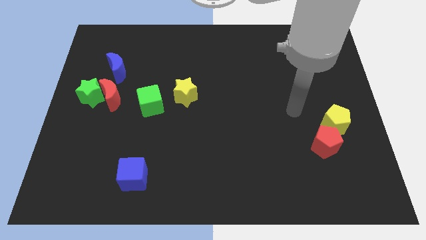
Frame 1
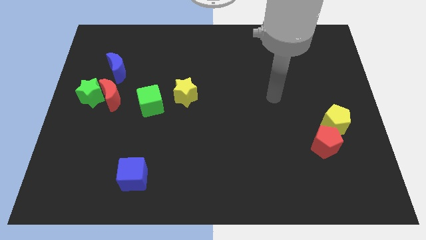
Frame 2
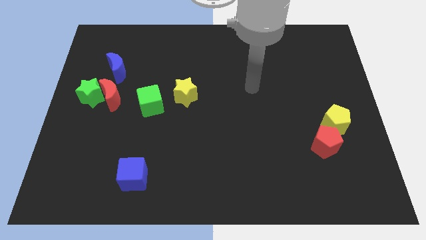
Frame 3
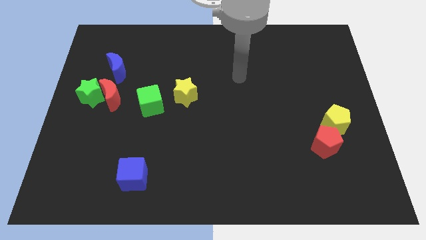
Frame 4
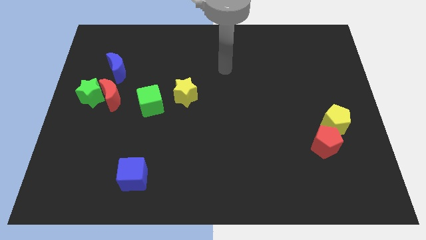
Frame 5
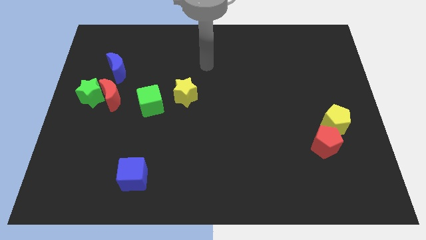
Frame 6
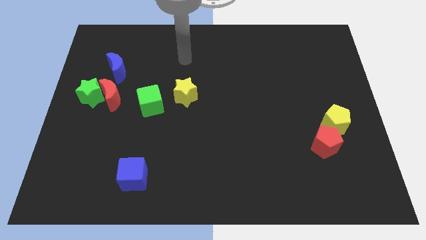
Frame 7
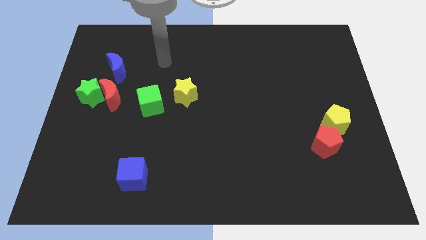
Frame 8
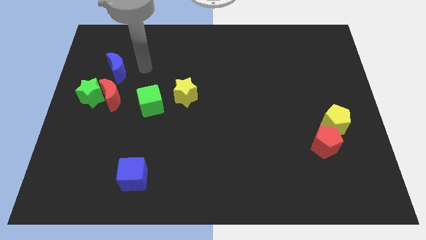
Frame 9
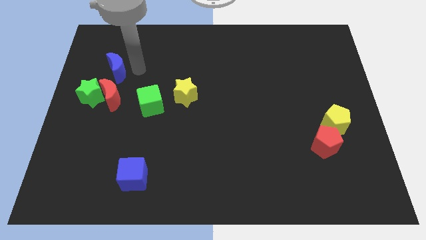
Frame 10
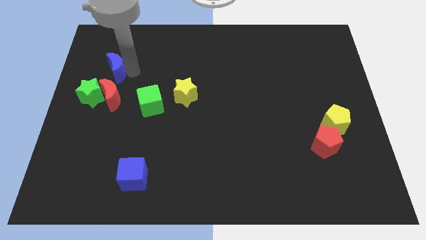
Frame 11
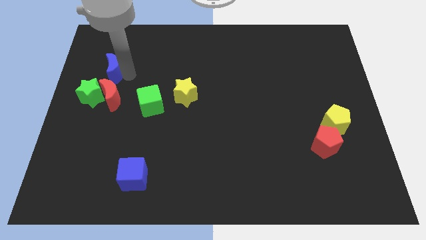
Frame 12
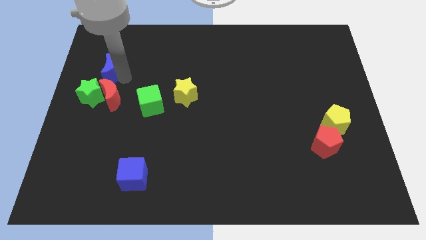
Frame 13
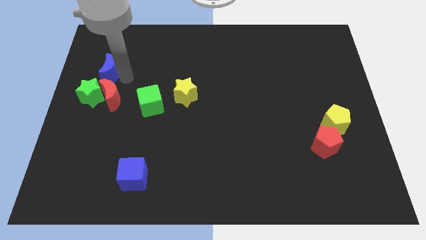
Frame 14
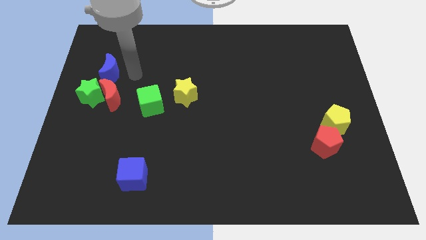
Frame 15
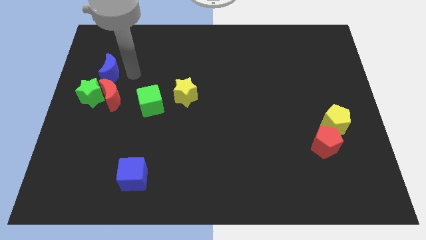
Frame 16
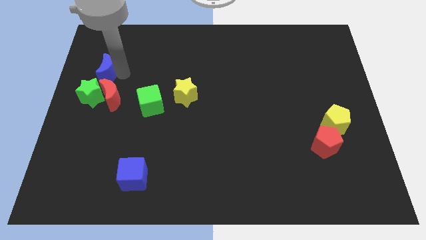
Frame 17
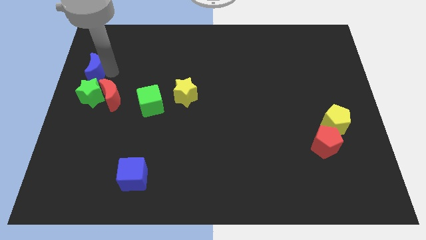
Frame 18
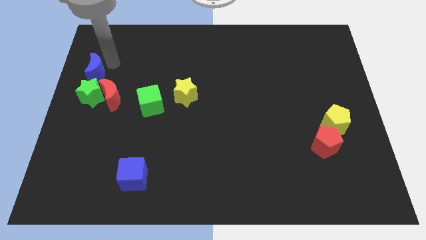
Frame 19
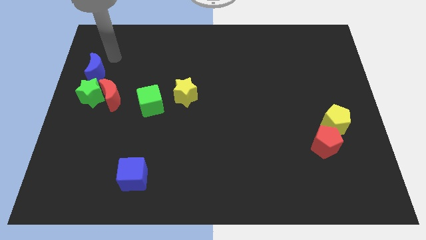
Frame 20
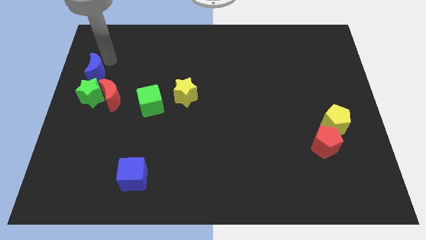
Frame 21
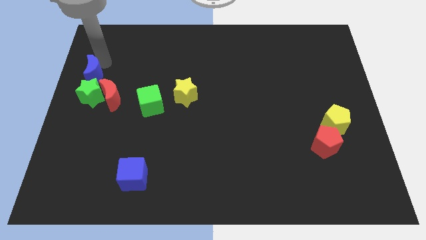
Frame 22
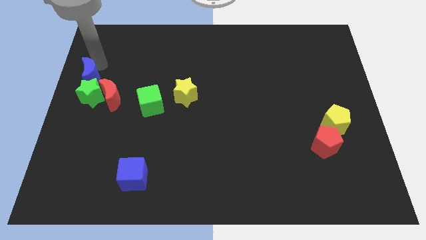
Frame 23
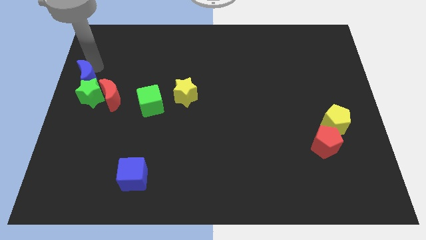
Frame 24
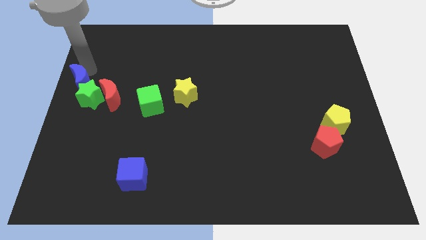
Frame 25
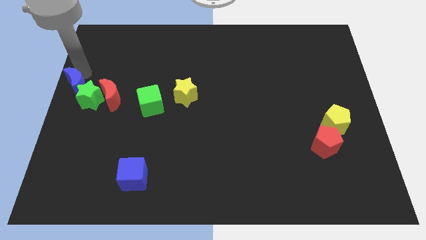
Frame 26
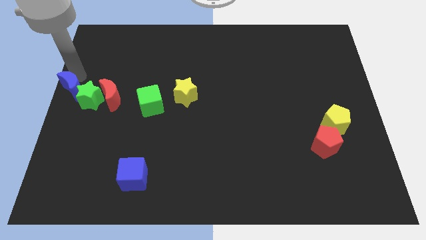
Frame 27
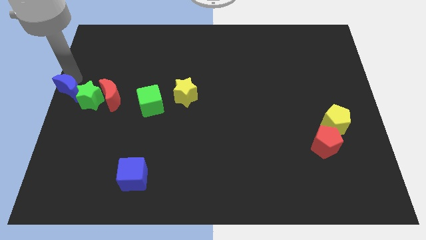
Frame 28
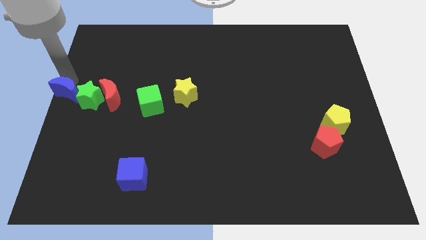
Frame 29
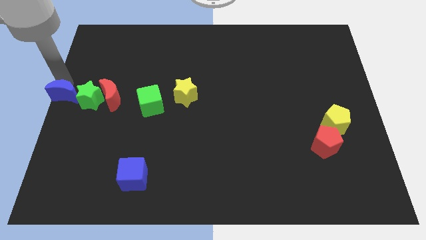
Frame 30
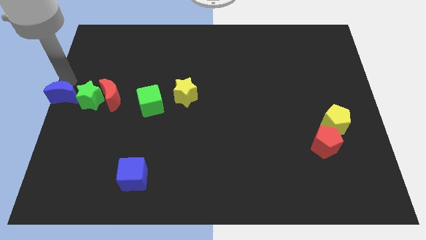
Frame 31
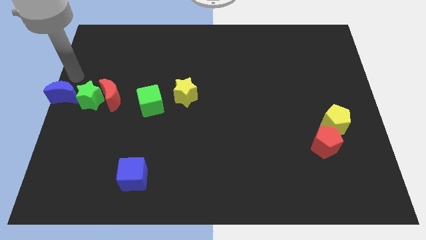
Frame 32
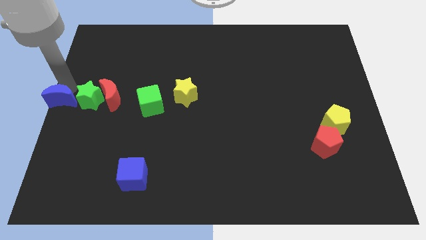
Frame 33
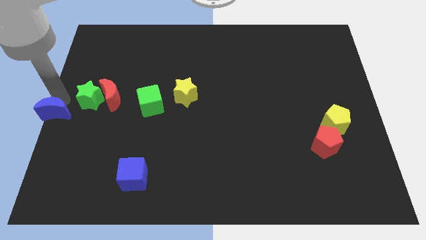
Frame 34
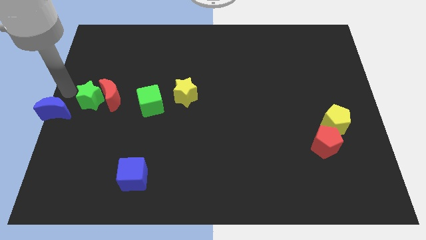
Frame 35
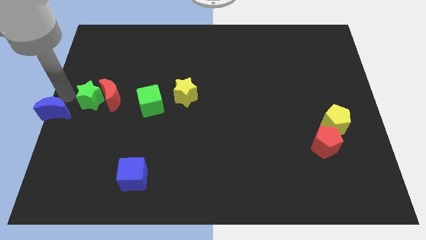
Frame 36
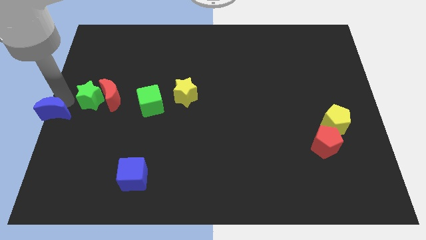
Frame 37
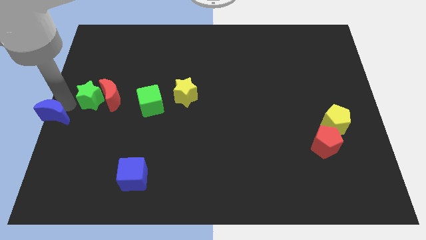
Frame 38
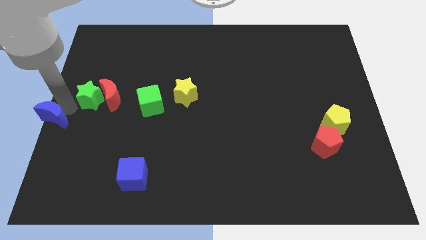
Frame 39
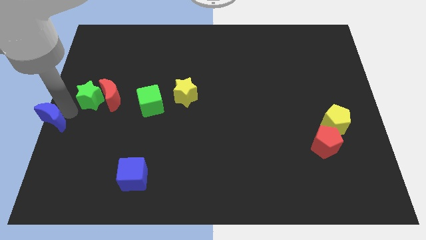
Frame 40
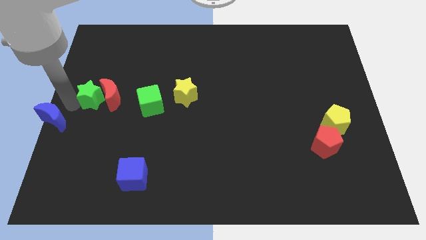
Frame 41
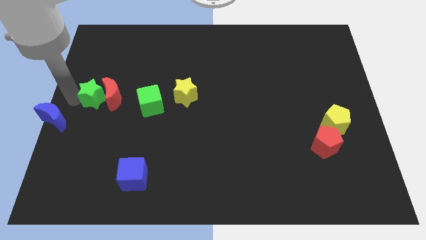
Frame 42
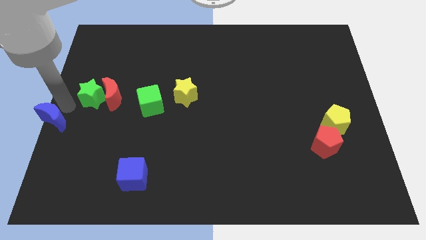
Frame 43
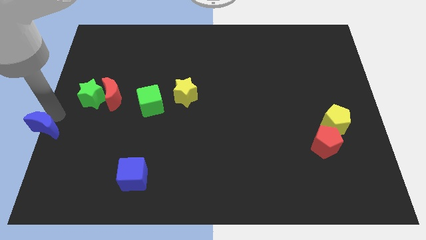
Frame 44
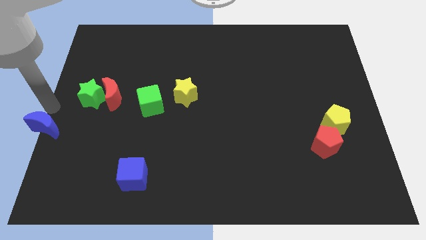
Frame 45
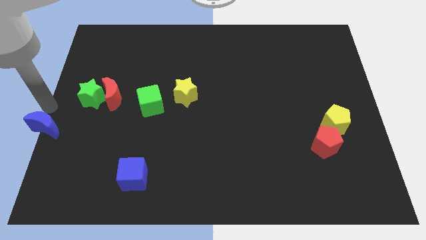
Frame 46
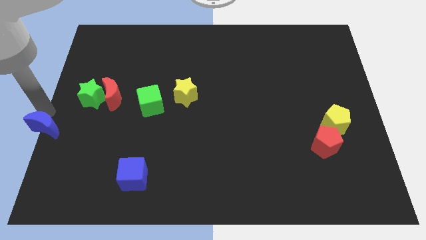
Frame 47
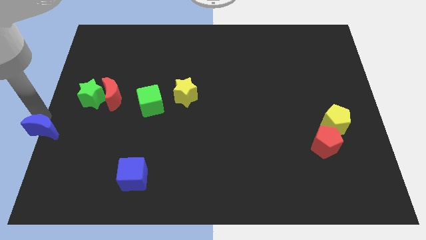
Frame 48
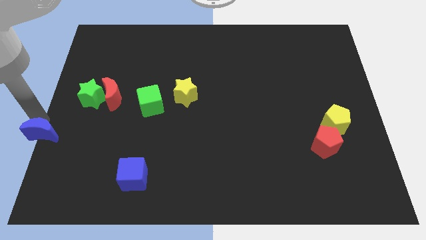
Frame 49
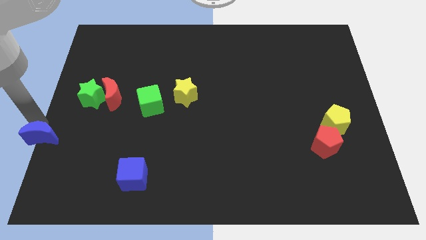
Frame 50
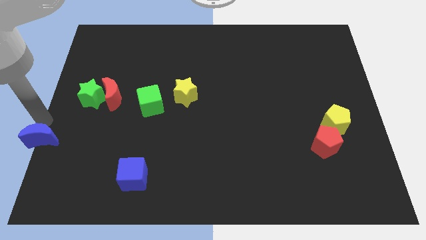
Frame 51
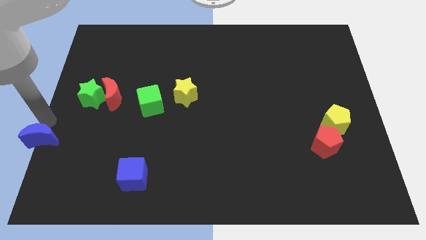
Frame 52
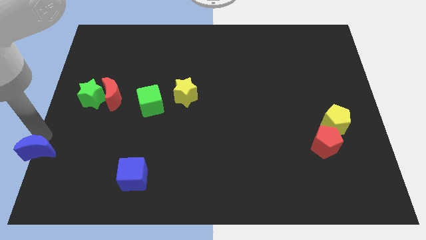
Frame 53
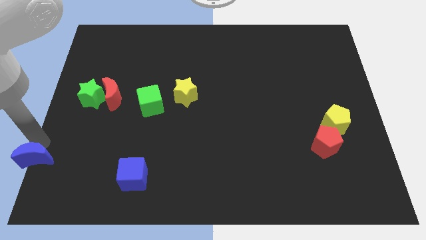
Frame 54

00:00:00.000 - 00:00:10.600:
move the blue moon to the bottom left corner

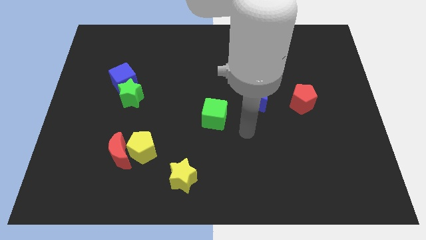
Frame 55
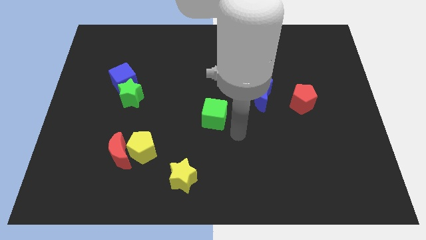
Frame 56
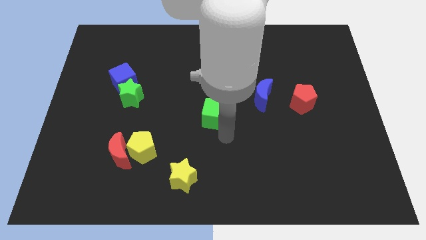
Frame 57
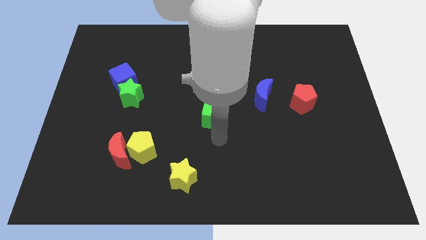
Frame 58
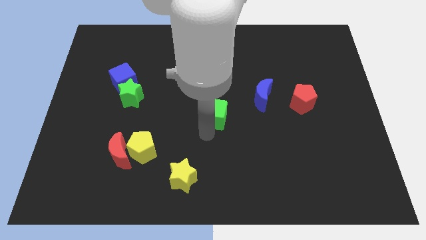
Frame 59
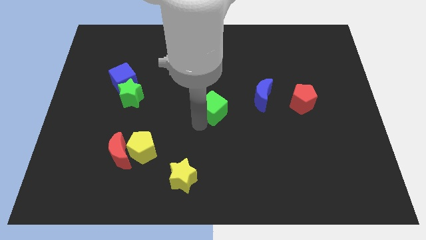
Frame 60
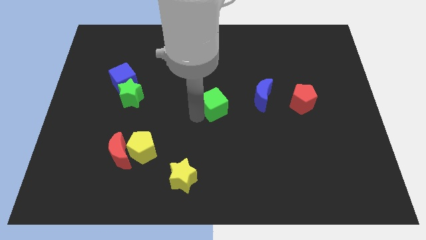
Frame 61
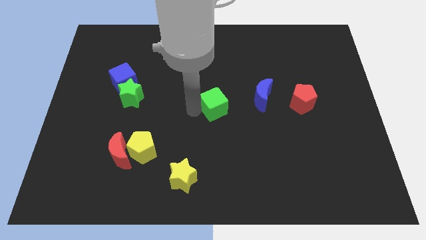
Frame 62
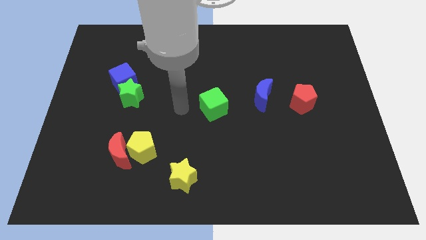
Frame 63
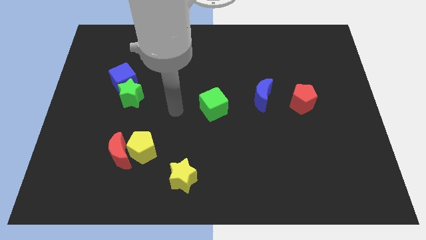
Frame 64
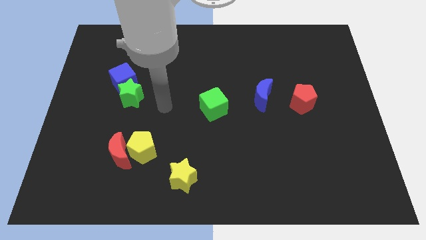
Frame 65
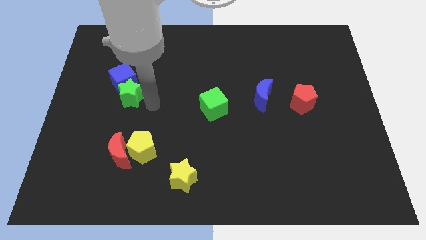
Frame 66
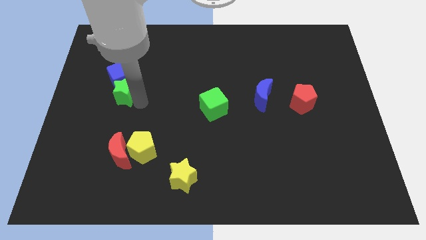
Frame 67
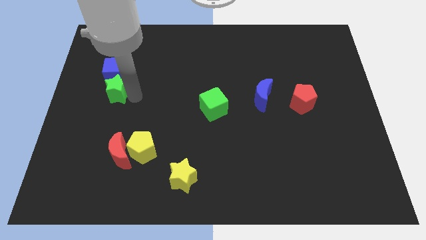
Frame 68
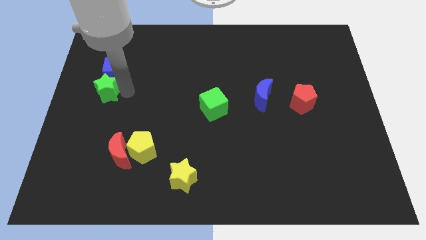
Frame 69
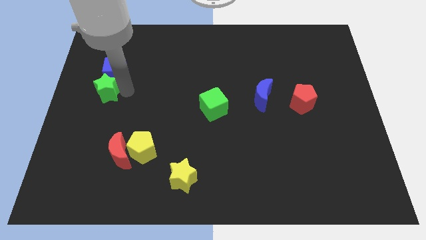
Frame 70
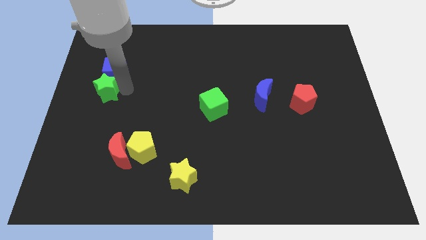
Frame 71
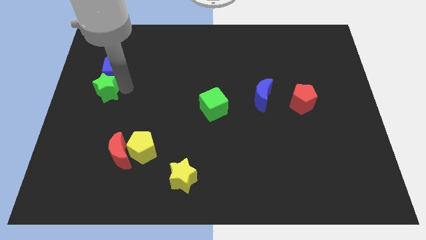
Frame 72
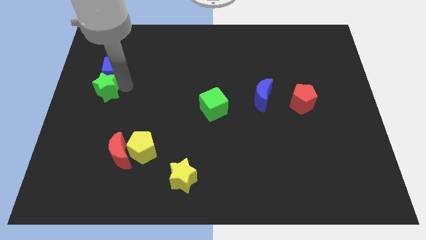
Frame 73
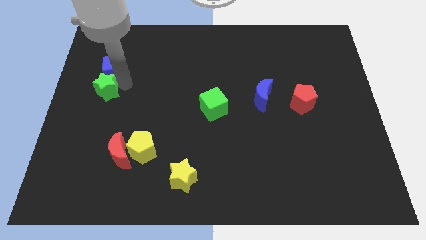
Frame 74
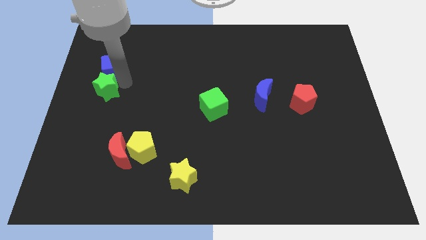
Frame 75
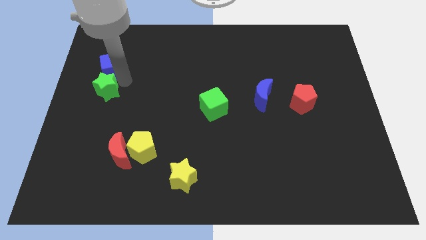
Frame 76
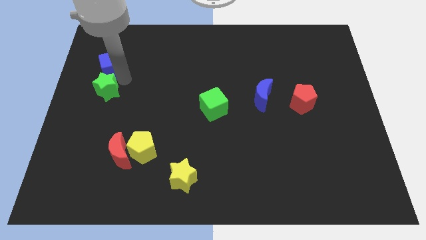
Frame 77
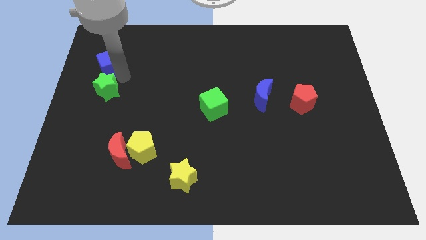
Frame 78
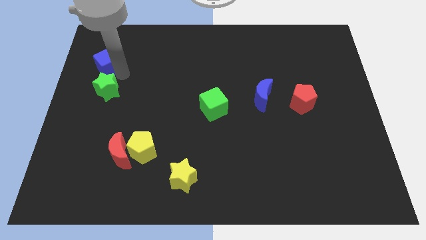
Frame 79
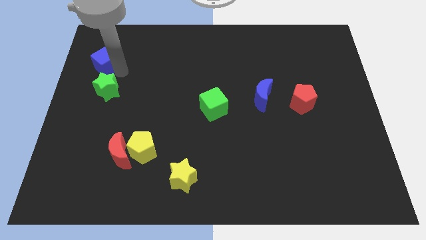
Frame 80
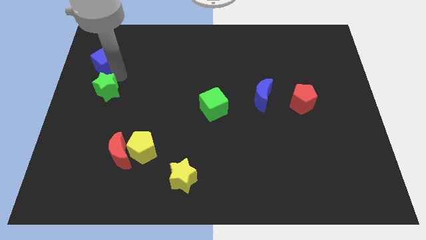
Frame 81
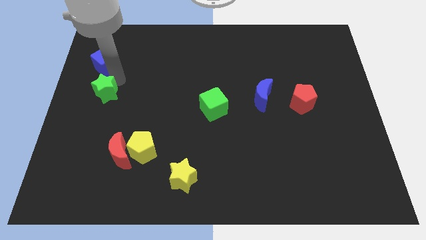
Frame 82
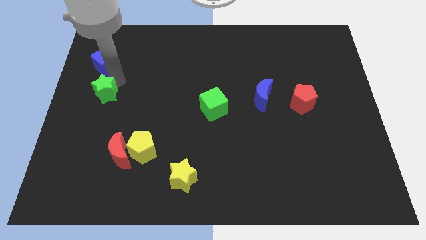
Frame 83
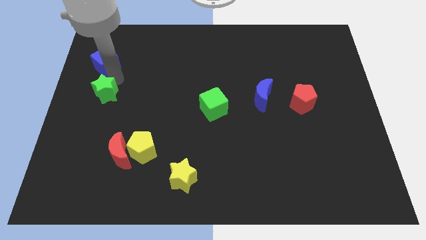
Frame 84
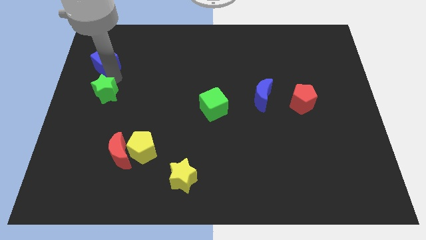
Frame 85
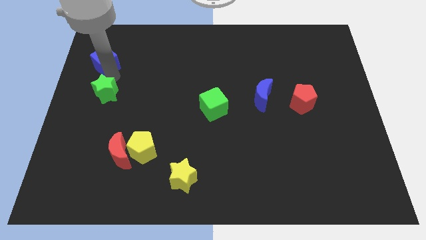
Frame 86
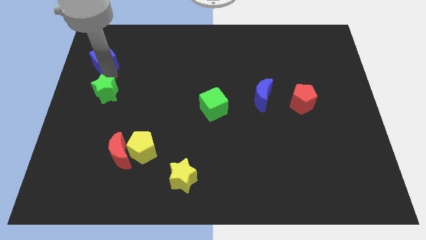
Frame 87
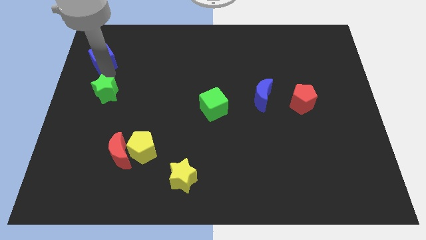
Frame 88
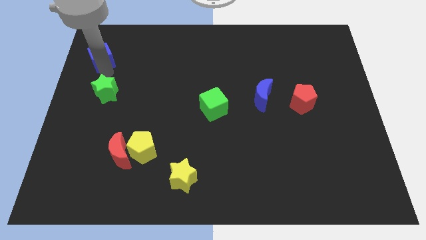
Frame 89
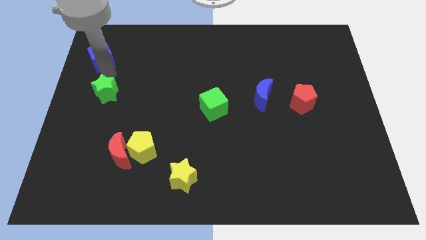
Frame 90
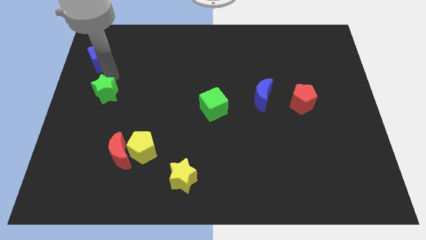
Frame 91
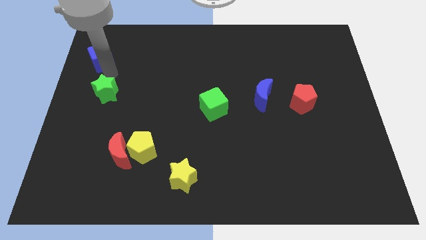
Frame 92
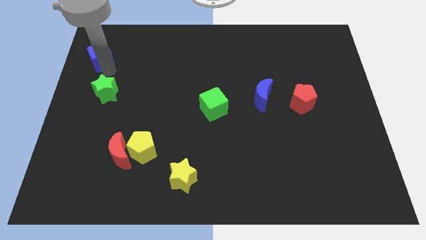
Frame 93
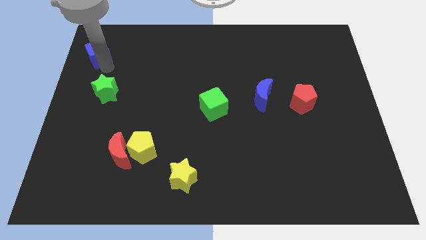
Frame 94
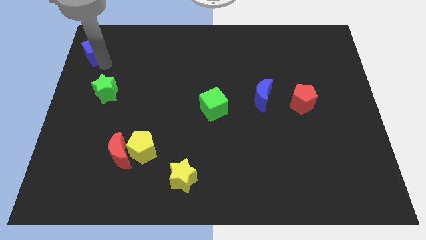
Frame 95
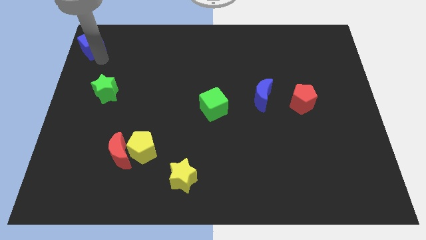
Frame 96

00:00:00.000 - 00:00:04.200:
put the blue cube to the top left
